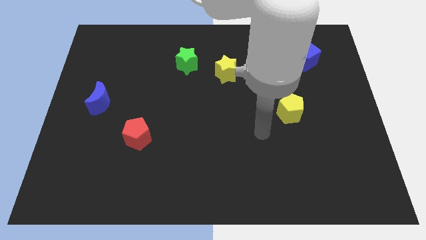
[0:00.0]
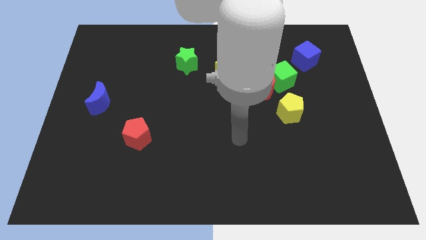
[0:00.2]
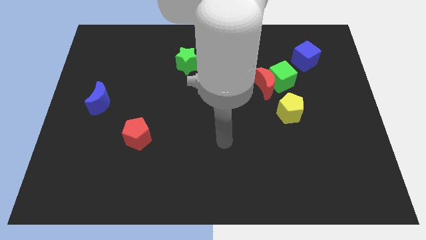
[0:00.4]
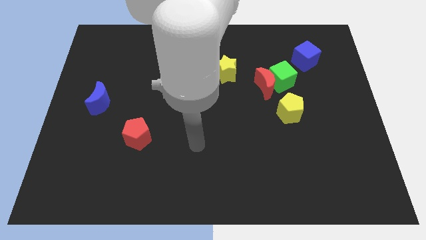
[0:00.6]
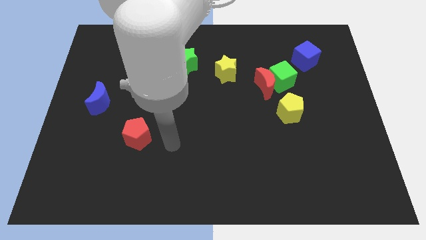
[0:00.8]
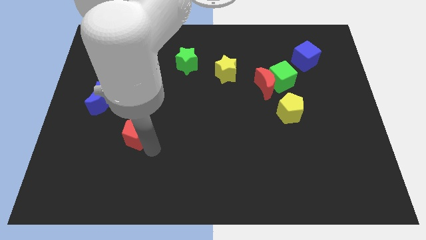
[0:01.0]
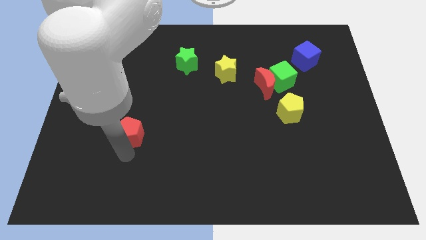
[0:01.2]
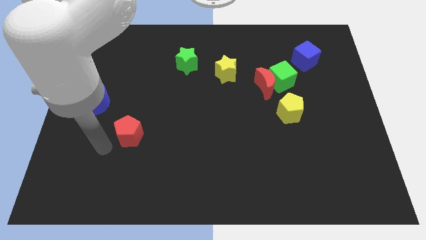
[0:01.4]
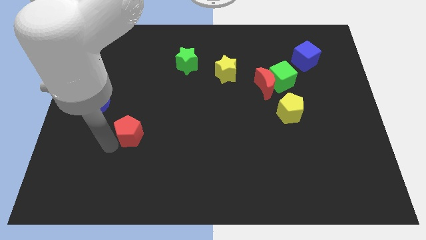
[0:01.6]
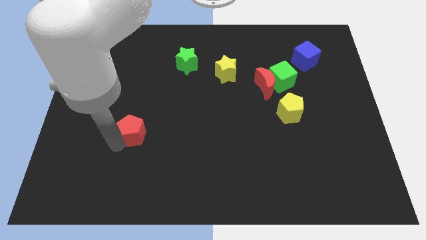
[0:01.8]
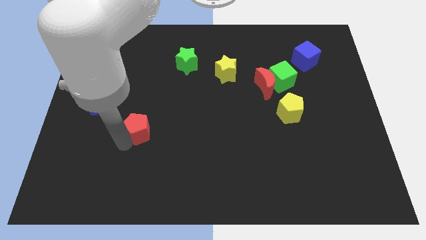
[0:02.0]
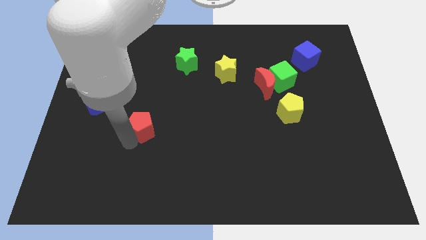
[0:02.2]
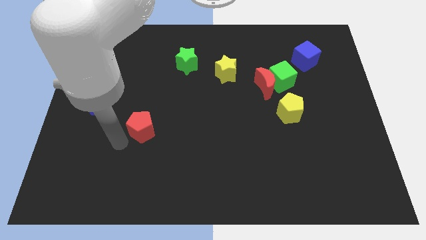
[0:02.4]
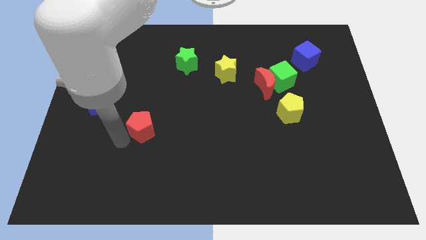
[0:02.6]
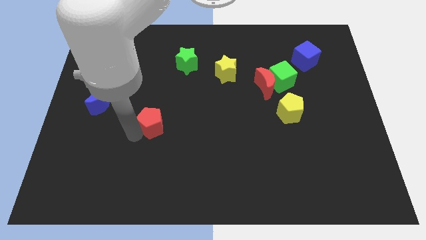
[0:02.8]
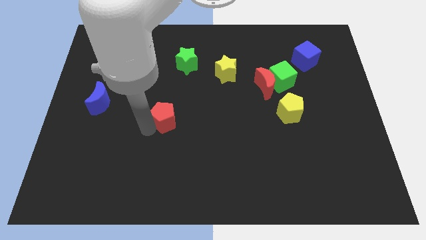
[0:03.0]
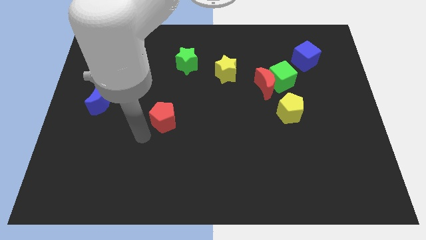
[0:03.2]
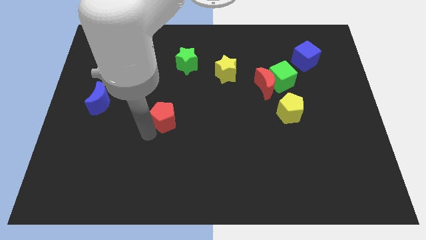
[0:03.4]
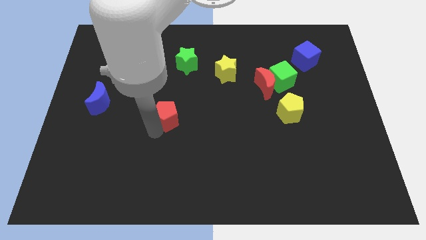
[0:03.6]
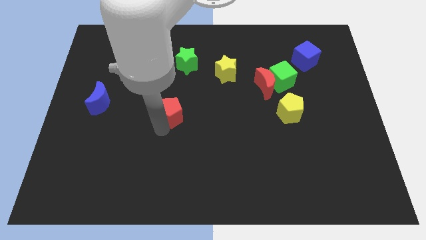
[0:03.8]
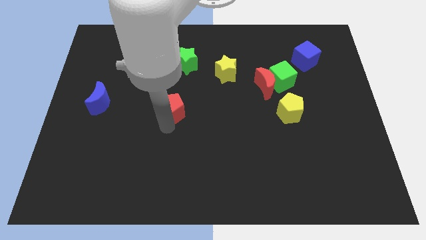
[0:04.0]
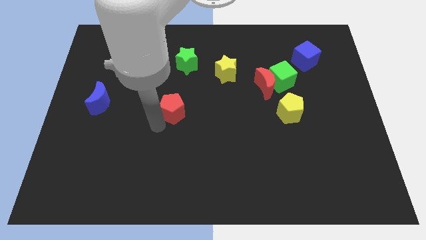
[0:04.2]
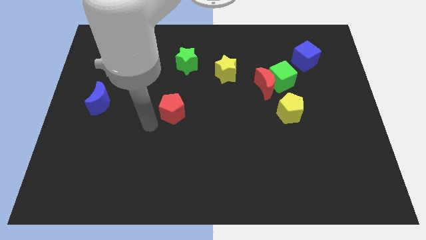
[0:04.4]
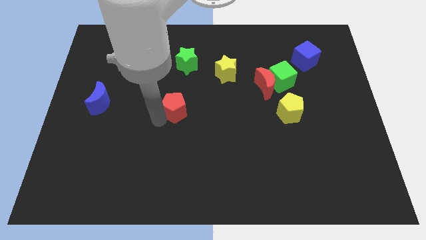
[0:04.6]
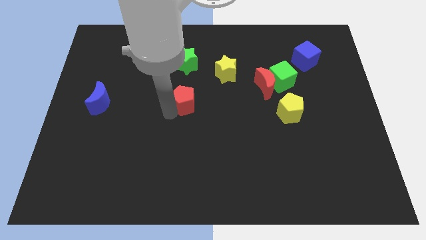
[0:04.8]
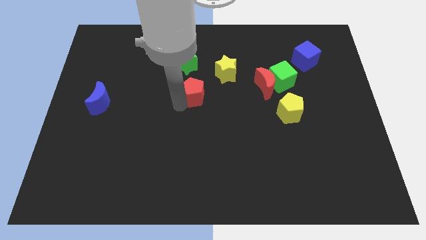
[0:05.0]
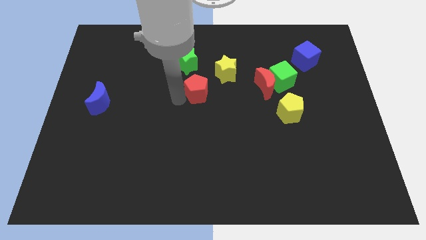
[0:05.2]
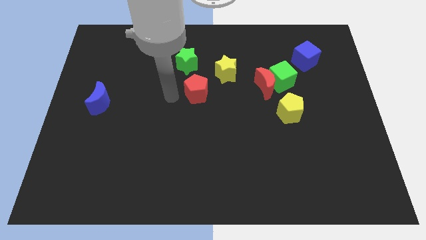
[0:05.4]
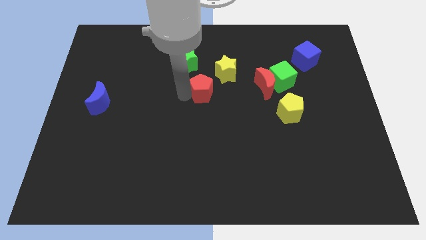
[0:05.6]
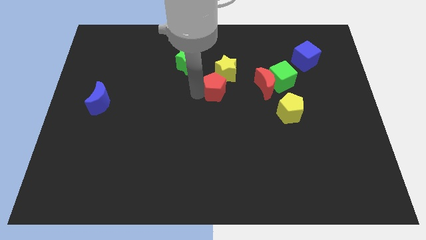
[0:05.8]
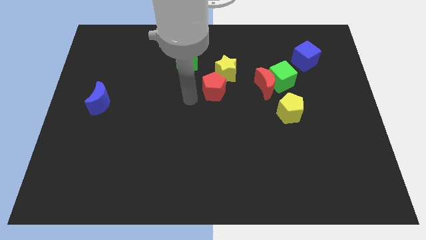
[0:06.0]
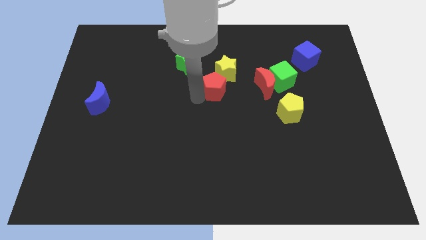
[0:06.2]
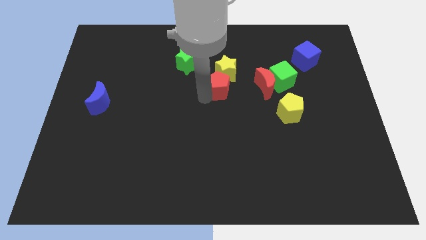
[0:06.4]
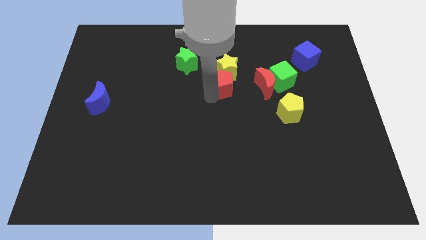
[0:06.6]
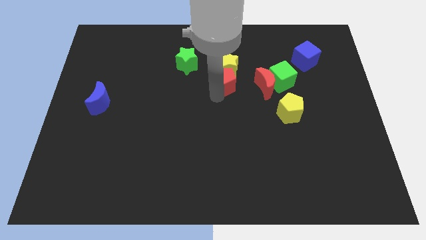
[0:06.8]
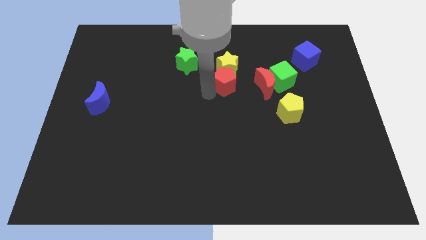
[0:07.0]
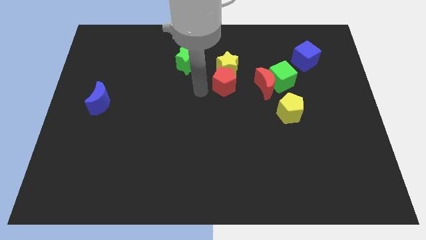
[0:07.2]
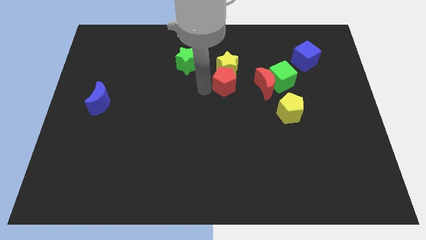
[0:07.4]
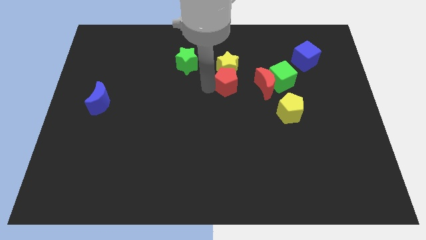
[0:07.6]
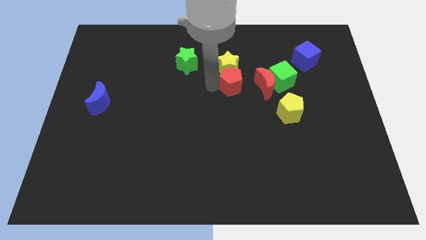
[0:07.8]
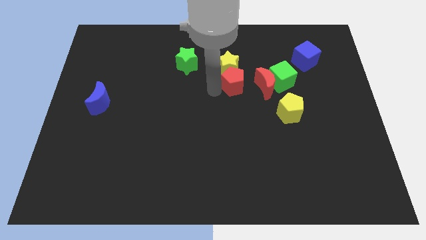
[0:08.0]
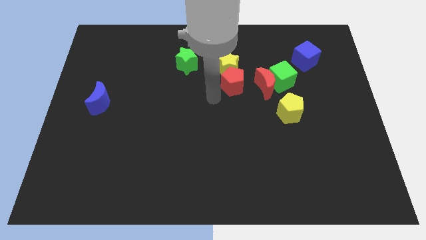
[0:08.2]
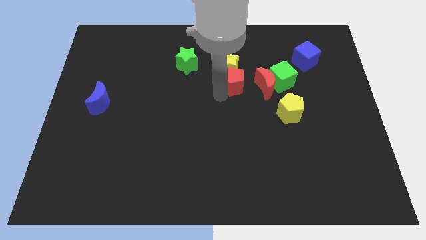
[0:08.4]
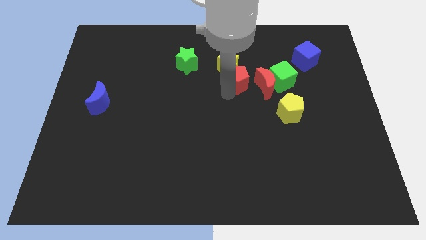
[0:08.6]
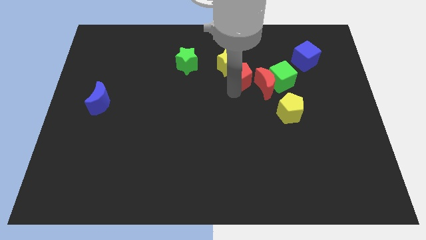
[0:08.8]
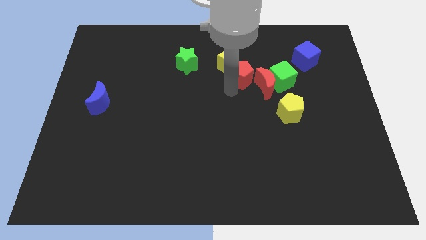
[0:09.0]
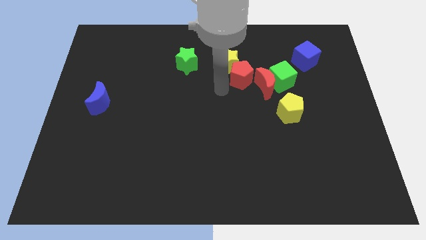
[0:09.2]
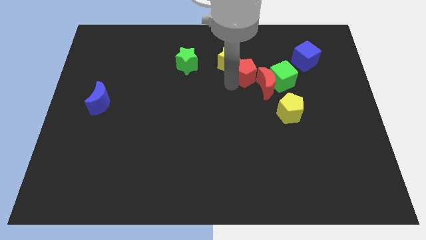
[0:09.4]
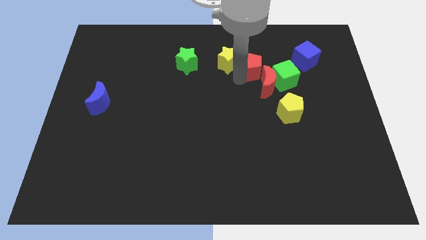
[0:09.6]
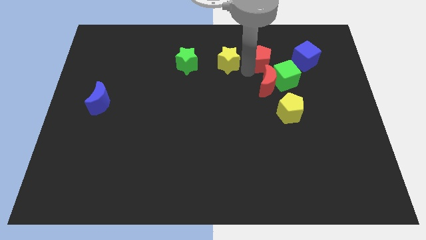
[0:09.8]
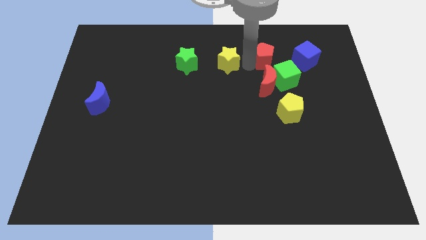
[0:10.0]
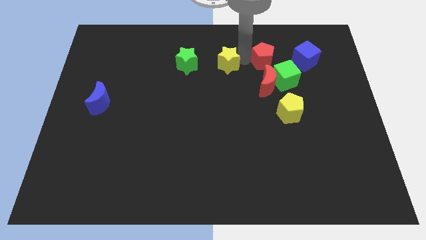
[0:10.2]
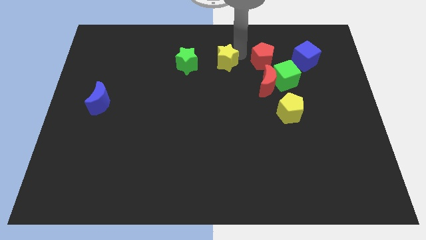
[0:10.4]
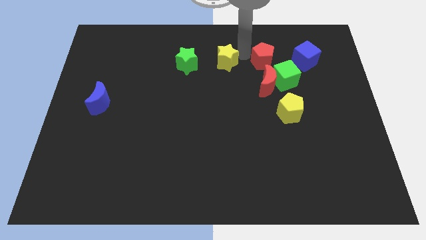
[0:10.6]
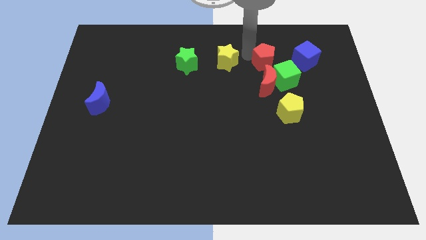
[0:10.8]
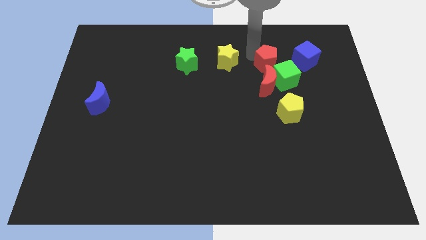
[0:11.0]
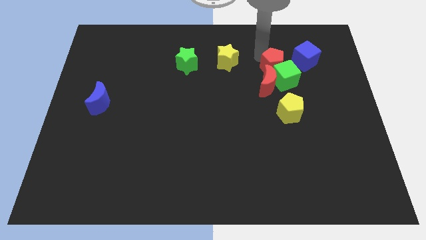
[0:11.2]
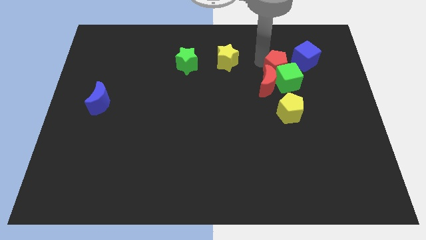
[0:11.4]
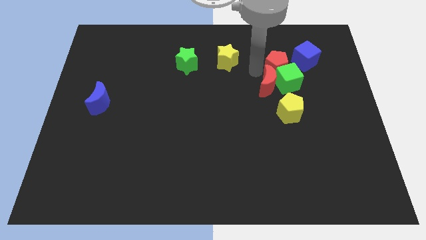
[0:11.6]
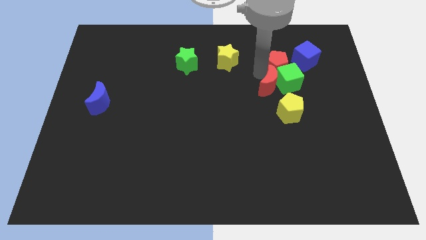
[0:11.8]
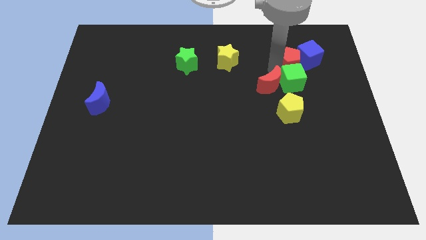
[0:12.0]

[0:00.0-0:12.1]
push the red pentagon to the blue cube

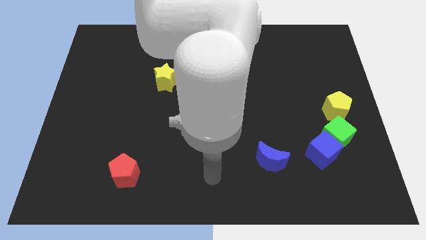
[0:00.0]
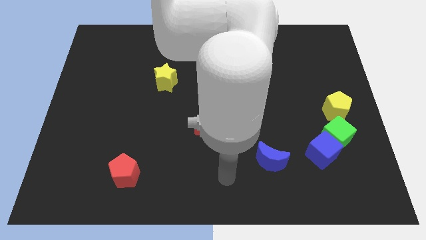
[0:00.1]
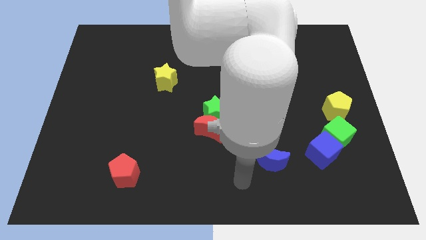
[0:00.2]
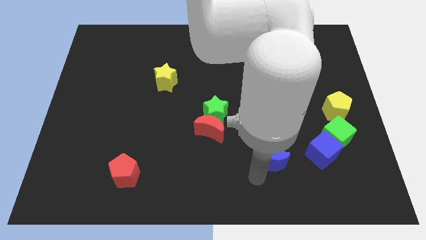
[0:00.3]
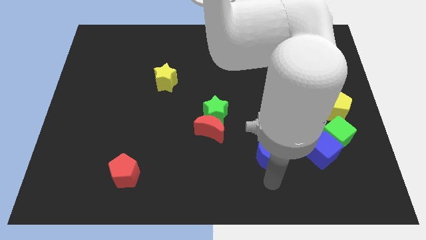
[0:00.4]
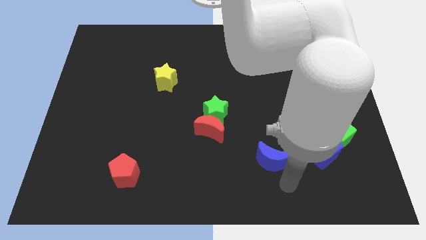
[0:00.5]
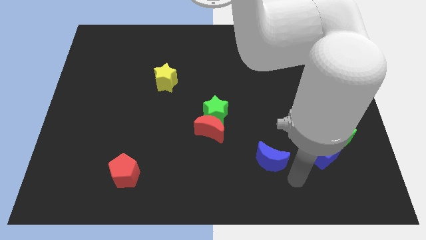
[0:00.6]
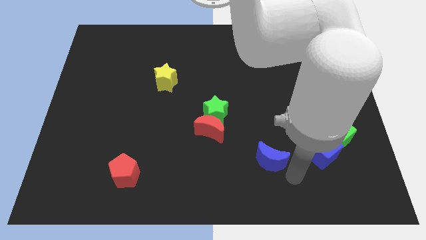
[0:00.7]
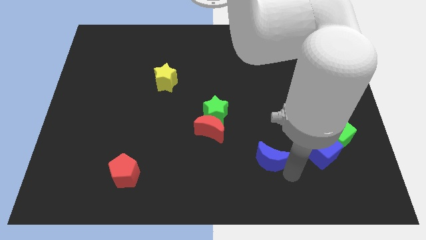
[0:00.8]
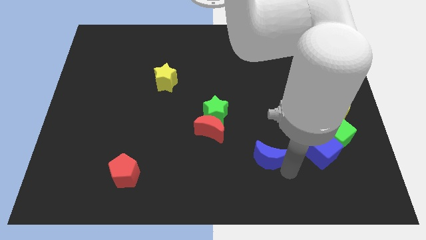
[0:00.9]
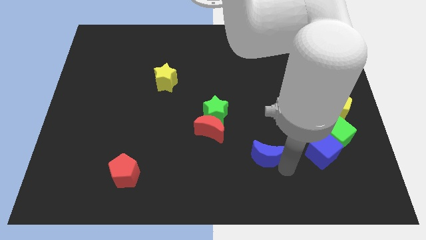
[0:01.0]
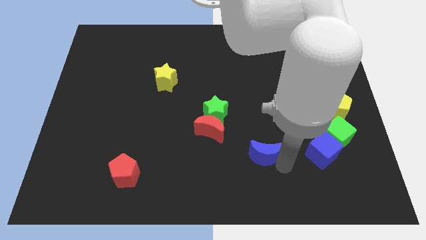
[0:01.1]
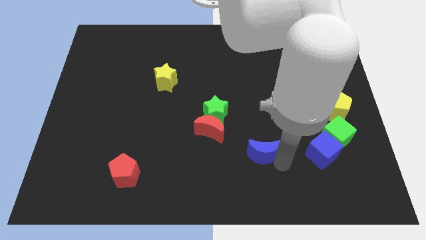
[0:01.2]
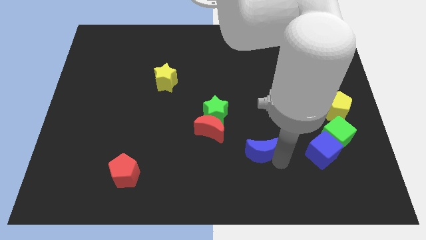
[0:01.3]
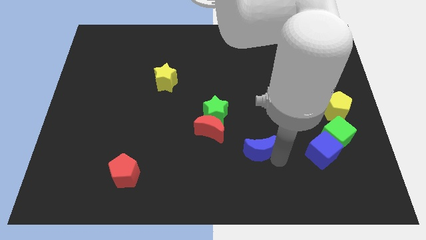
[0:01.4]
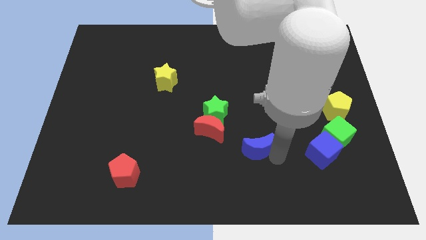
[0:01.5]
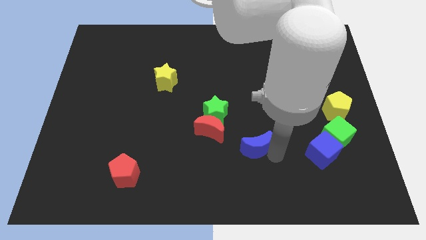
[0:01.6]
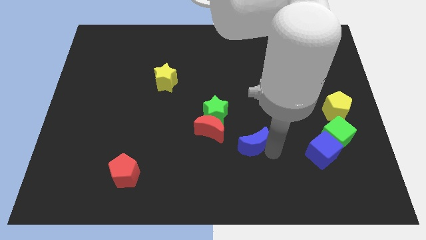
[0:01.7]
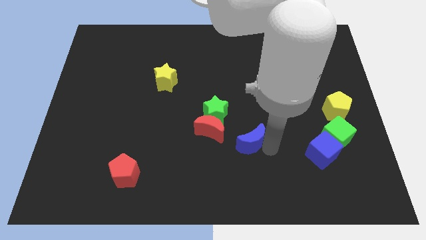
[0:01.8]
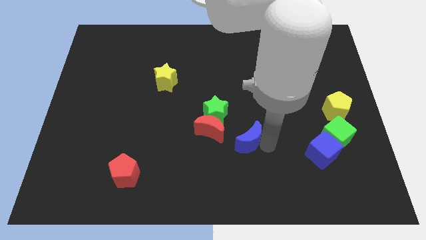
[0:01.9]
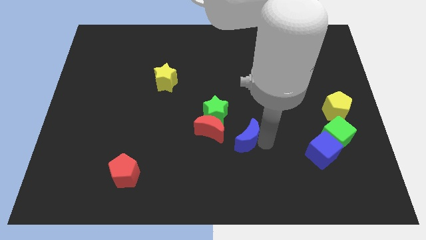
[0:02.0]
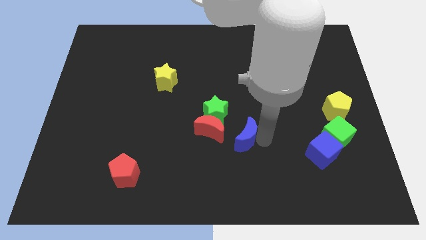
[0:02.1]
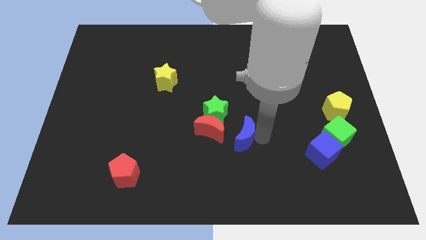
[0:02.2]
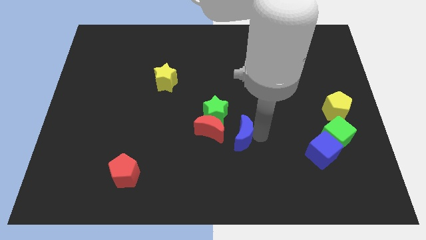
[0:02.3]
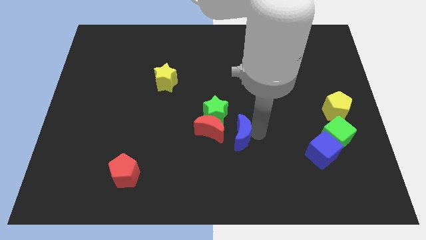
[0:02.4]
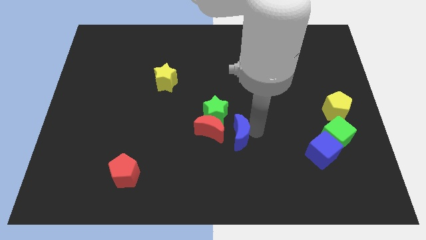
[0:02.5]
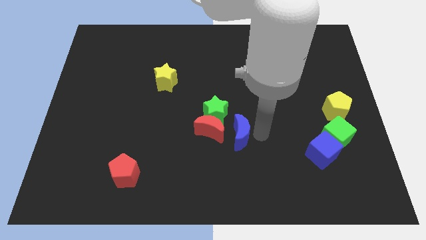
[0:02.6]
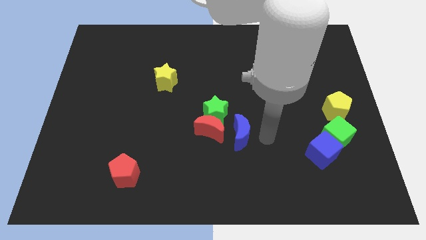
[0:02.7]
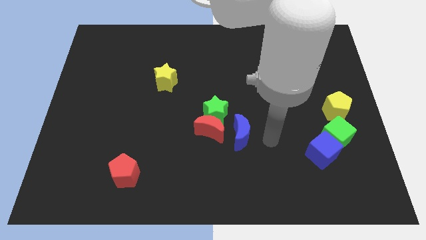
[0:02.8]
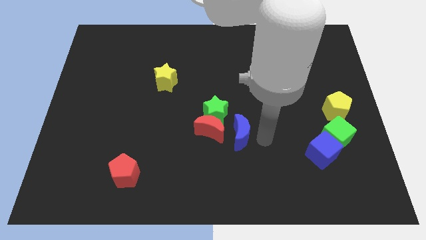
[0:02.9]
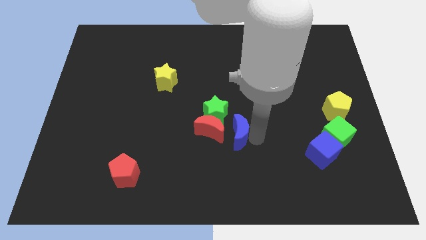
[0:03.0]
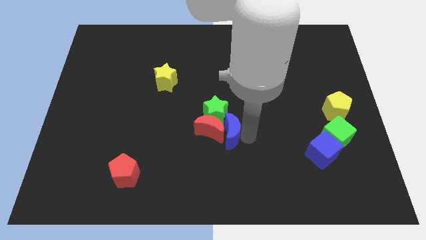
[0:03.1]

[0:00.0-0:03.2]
move the blue moon towards the red moon
